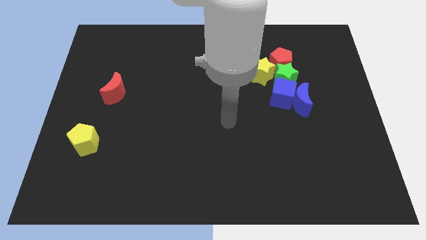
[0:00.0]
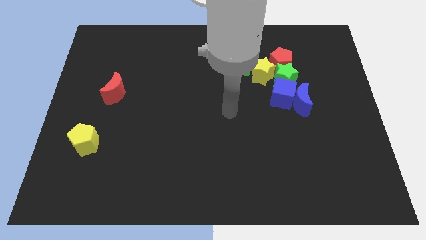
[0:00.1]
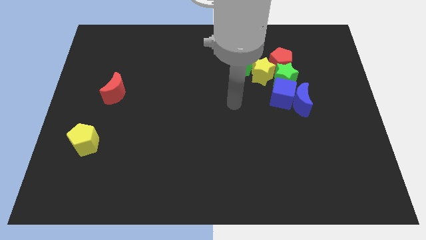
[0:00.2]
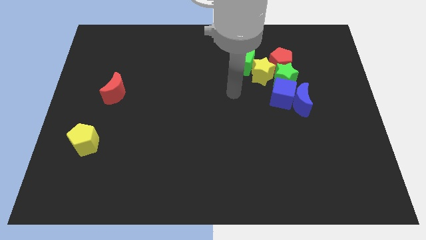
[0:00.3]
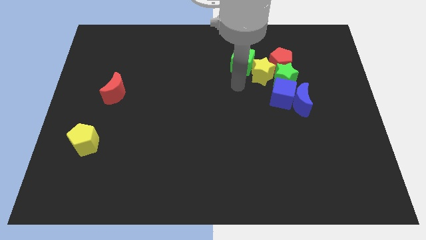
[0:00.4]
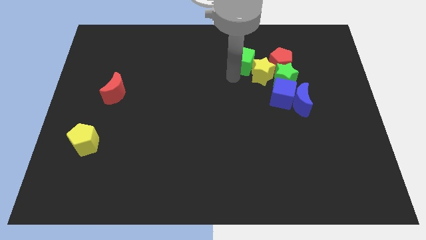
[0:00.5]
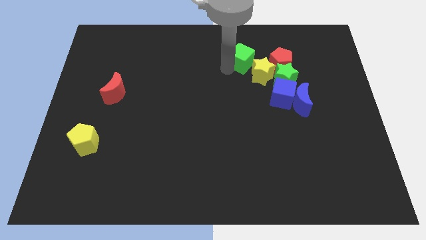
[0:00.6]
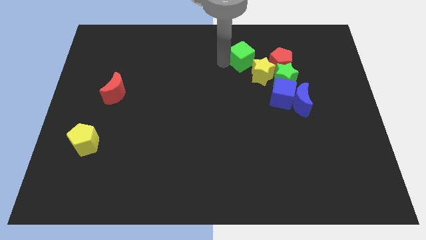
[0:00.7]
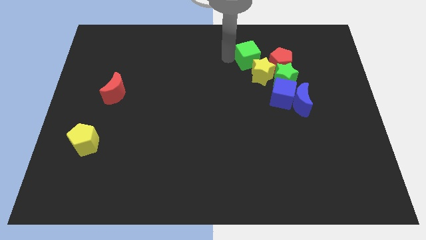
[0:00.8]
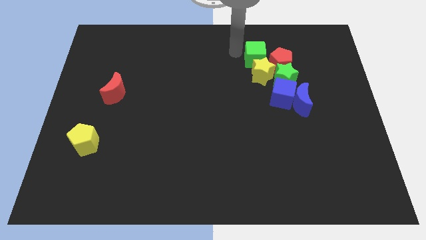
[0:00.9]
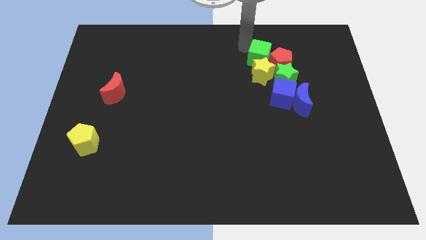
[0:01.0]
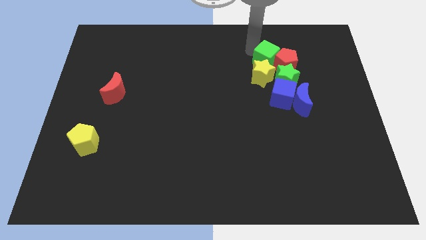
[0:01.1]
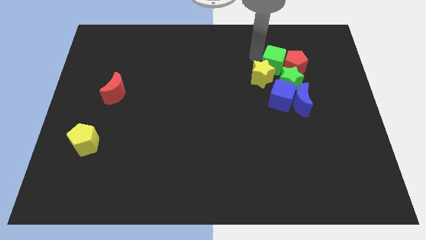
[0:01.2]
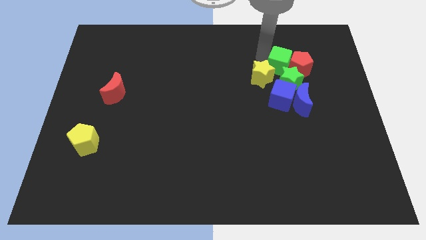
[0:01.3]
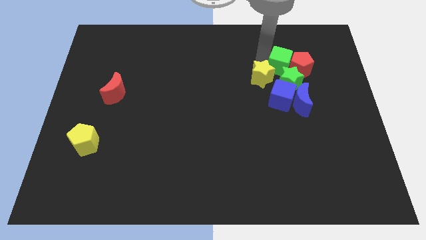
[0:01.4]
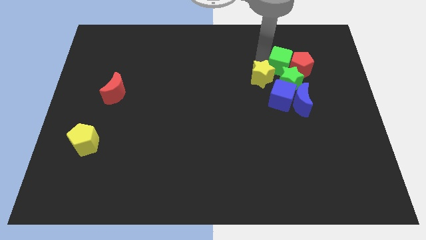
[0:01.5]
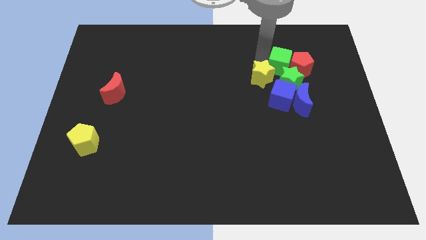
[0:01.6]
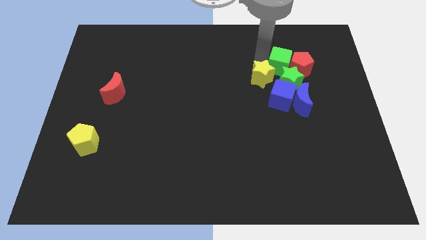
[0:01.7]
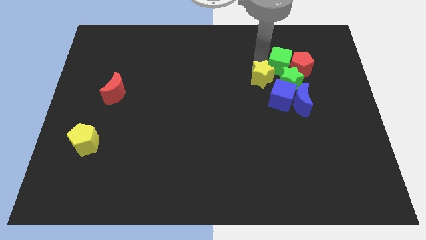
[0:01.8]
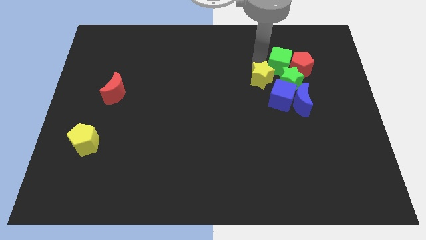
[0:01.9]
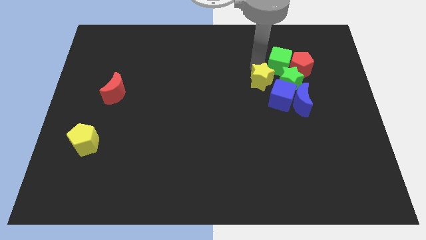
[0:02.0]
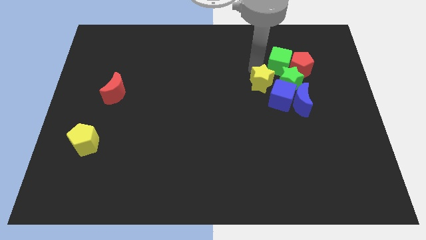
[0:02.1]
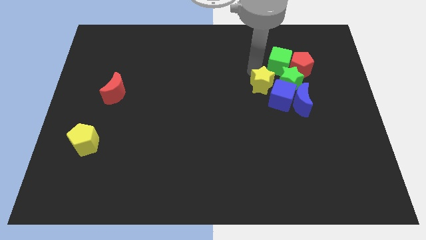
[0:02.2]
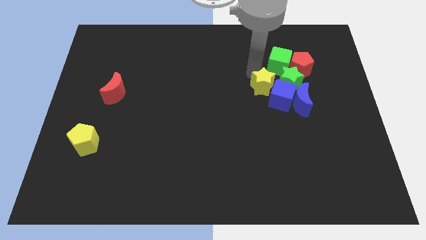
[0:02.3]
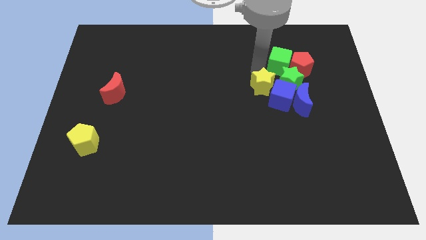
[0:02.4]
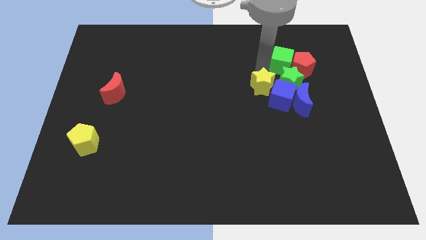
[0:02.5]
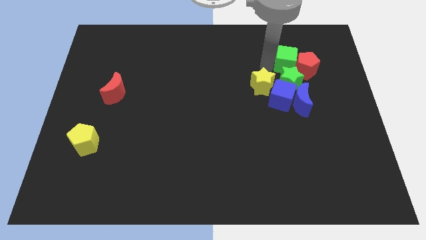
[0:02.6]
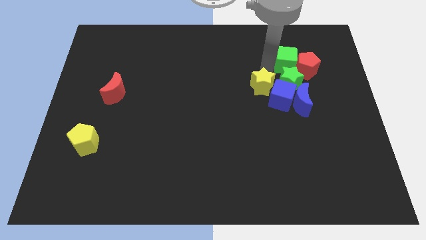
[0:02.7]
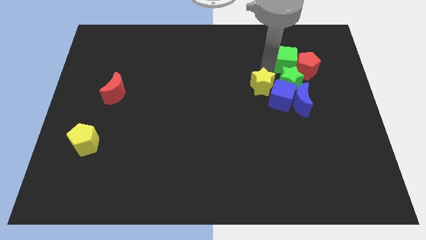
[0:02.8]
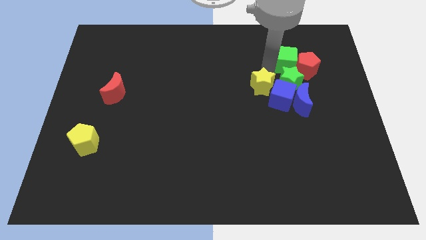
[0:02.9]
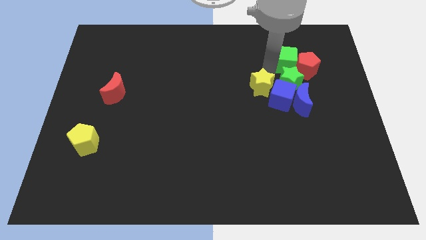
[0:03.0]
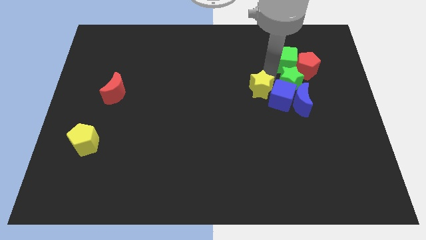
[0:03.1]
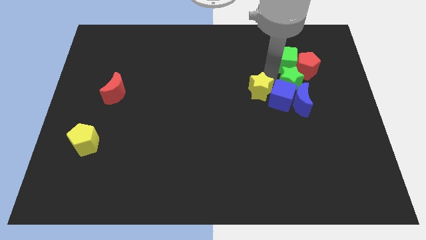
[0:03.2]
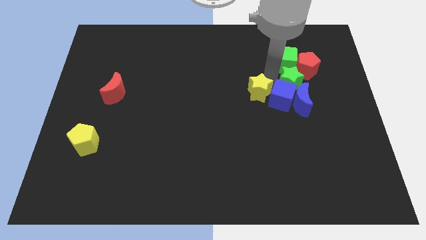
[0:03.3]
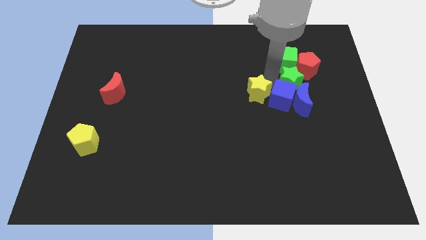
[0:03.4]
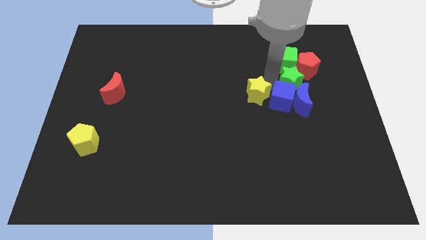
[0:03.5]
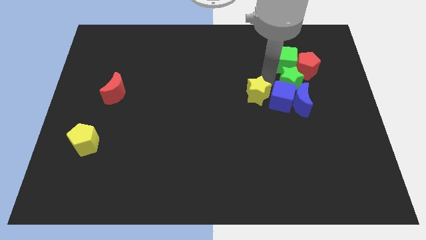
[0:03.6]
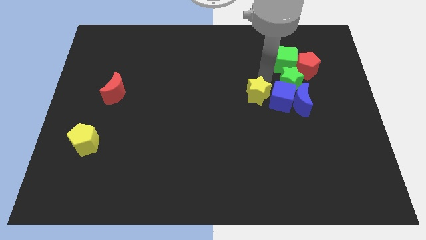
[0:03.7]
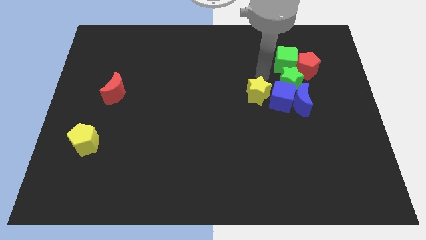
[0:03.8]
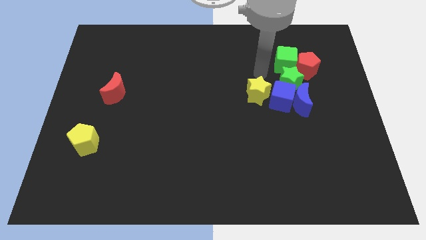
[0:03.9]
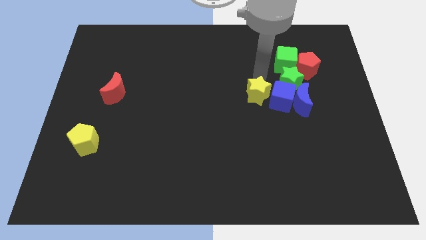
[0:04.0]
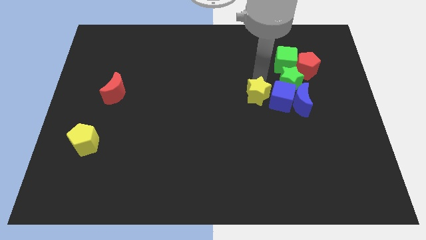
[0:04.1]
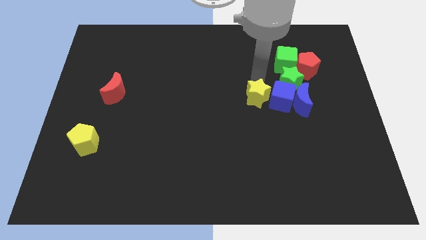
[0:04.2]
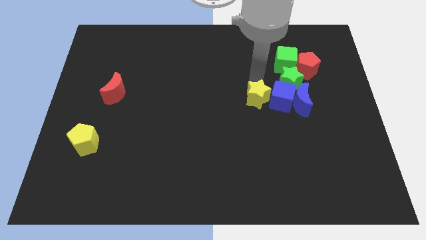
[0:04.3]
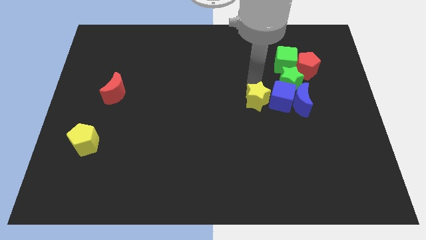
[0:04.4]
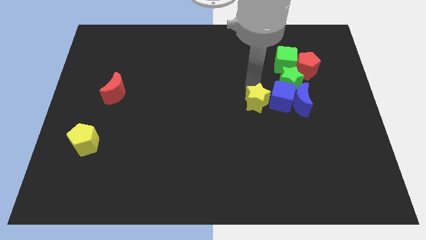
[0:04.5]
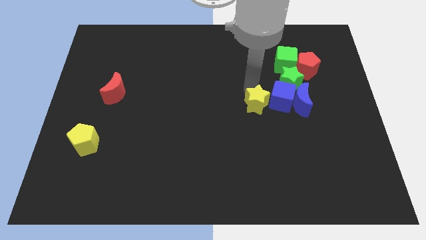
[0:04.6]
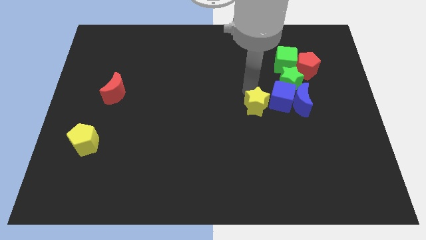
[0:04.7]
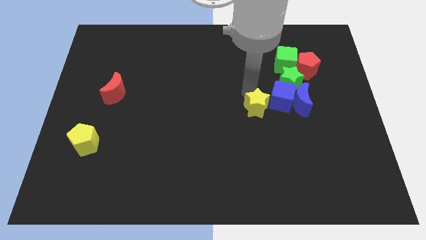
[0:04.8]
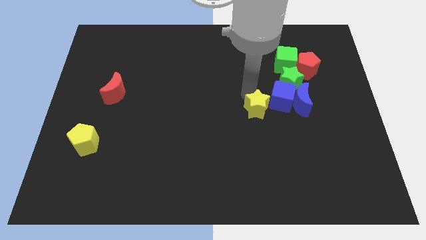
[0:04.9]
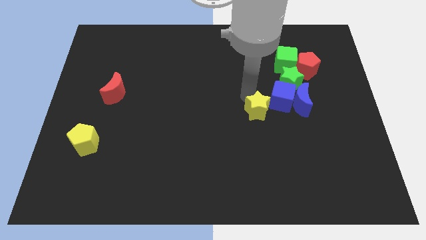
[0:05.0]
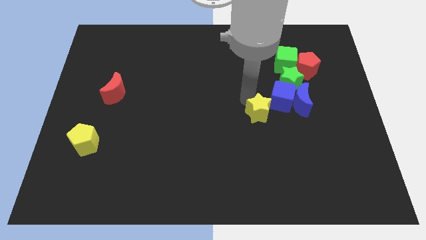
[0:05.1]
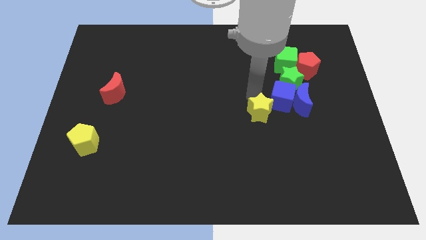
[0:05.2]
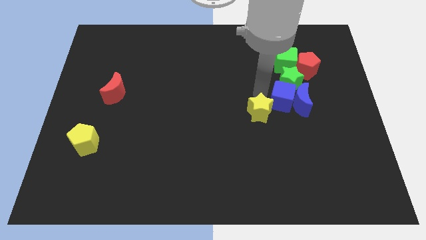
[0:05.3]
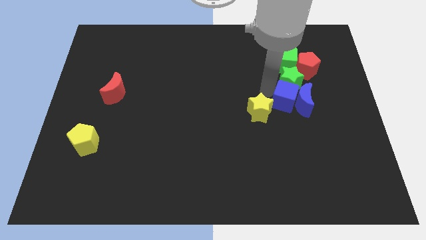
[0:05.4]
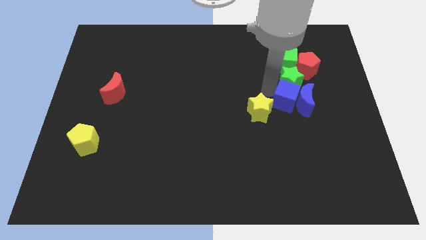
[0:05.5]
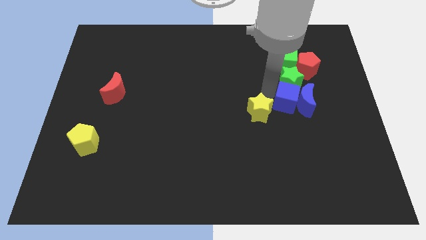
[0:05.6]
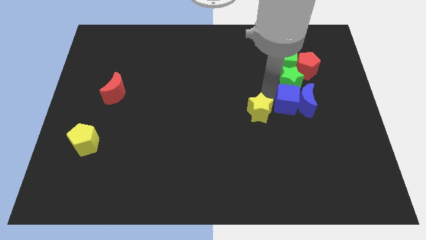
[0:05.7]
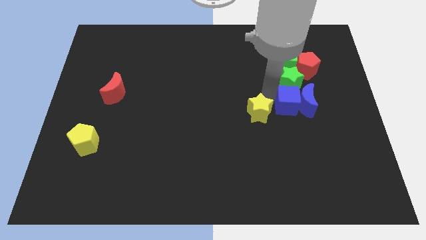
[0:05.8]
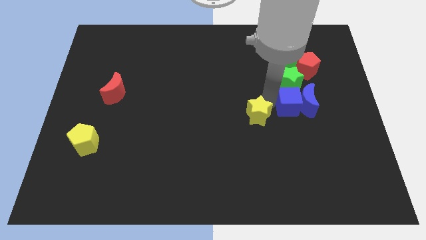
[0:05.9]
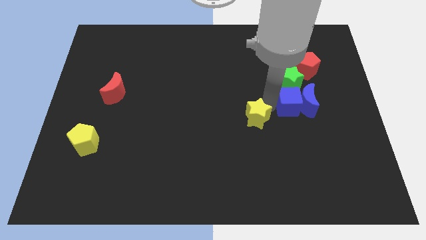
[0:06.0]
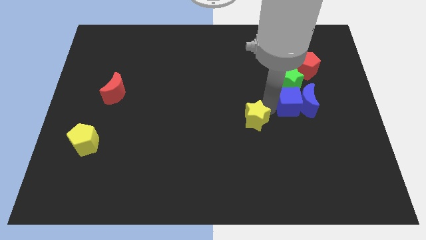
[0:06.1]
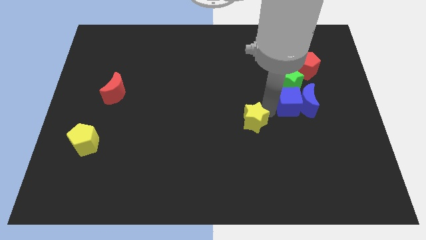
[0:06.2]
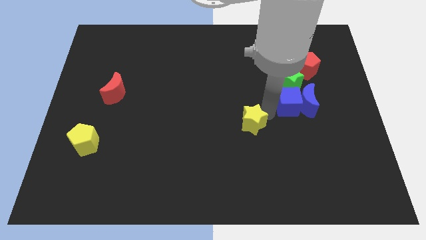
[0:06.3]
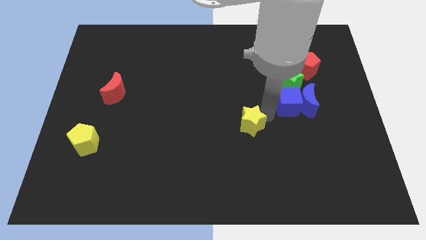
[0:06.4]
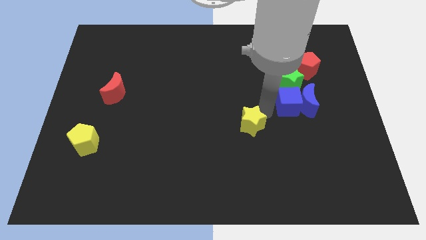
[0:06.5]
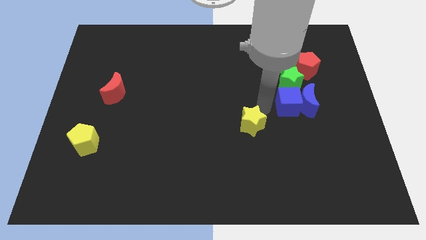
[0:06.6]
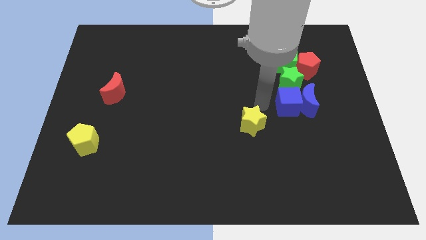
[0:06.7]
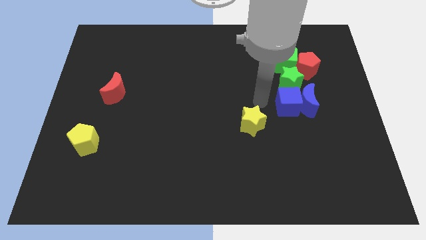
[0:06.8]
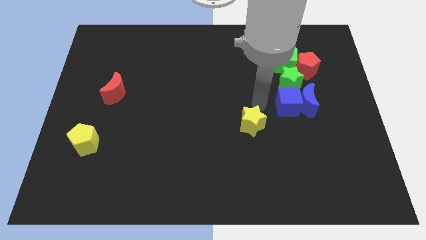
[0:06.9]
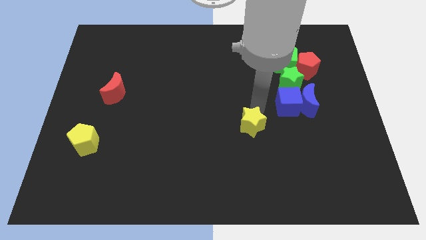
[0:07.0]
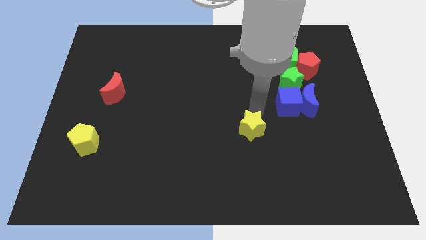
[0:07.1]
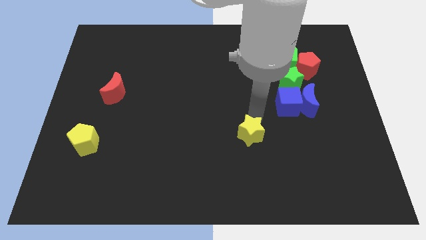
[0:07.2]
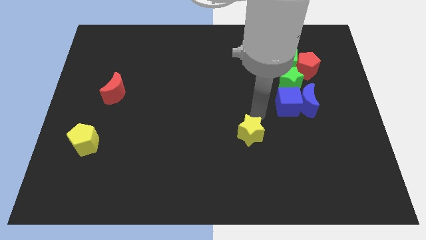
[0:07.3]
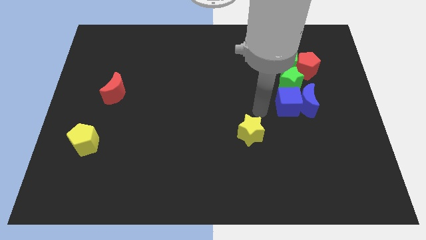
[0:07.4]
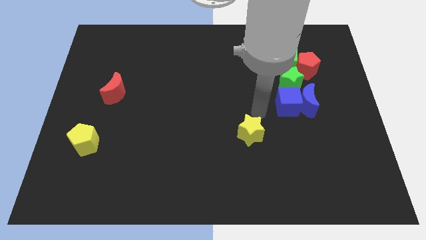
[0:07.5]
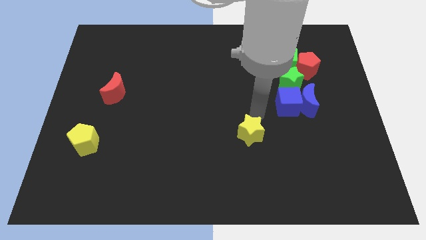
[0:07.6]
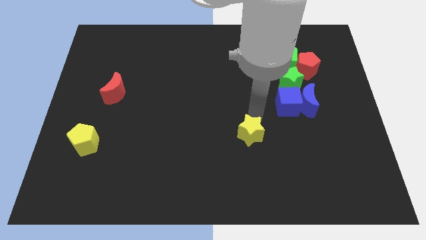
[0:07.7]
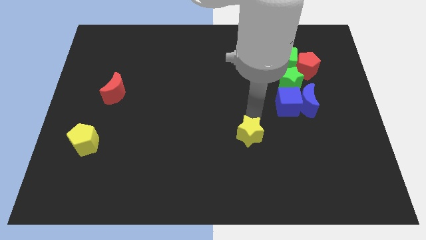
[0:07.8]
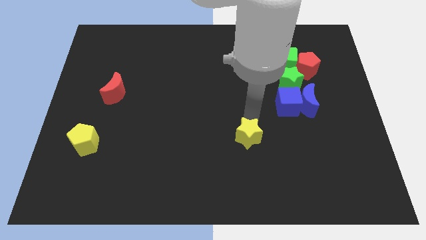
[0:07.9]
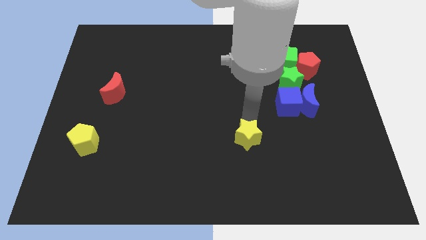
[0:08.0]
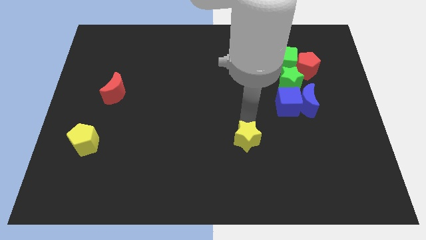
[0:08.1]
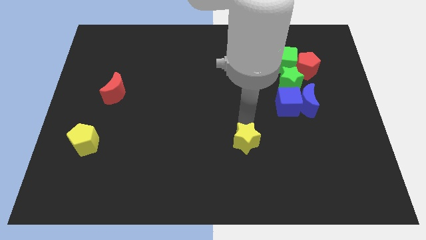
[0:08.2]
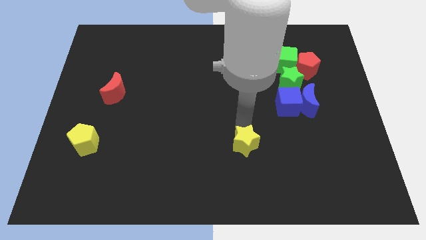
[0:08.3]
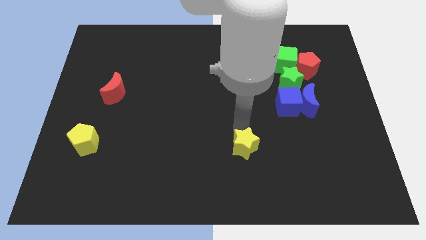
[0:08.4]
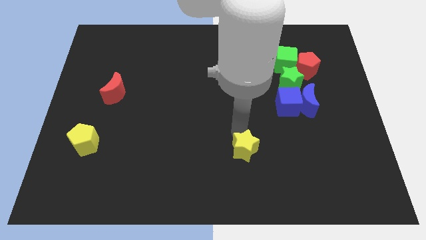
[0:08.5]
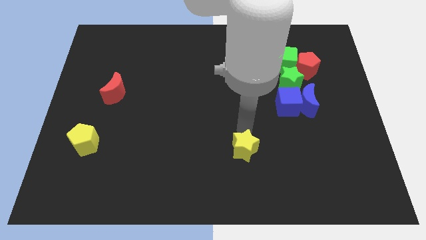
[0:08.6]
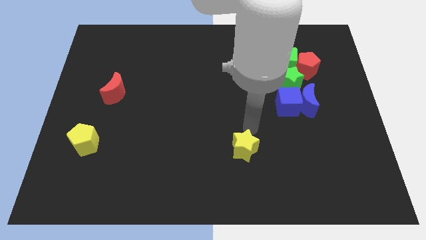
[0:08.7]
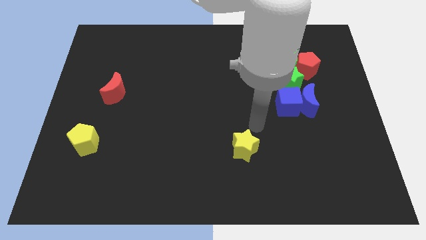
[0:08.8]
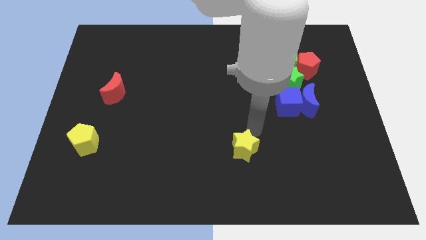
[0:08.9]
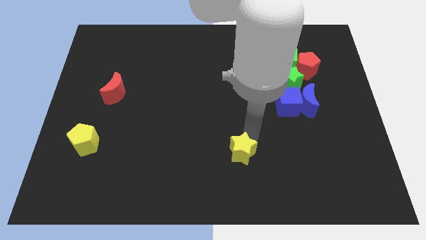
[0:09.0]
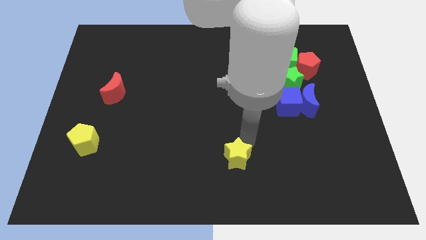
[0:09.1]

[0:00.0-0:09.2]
move the yellow star to the bottom side
